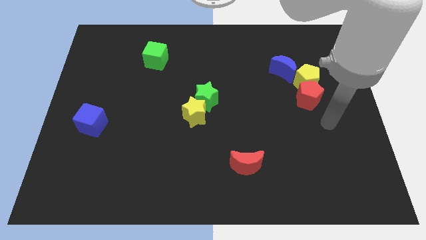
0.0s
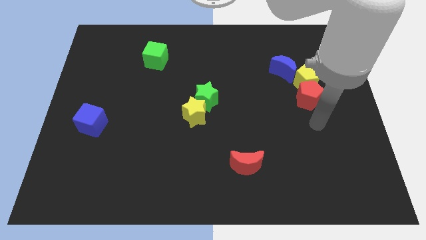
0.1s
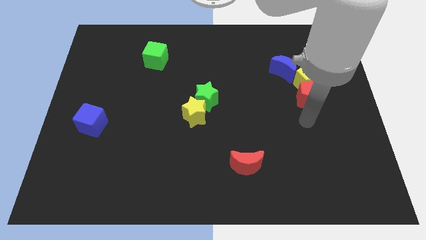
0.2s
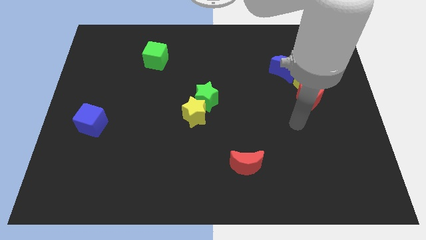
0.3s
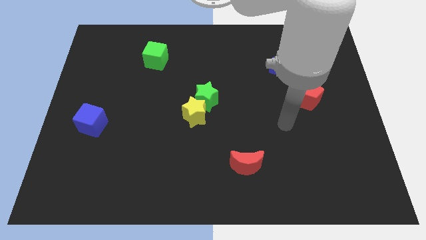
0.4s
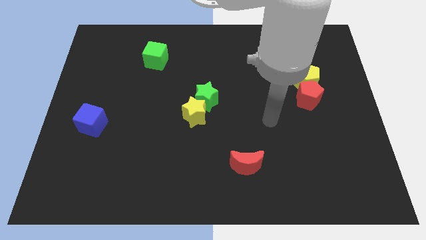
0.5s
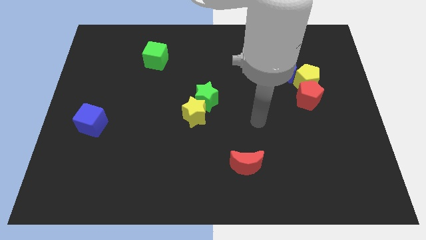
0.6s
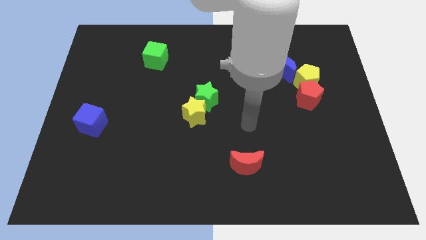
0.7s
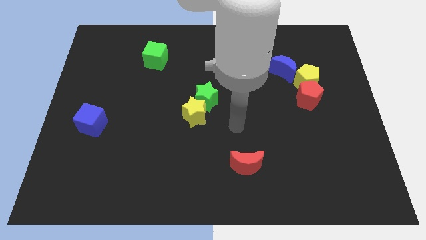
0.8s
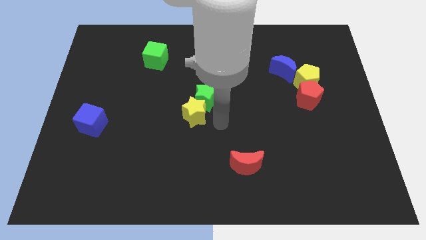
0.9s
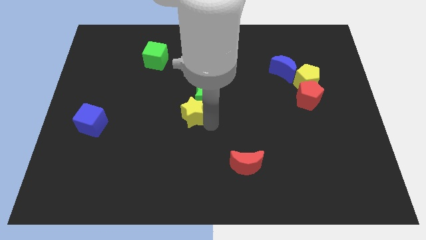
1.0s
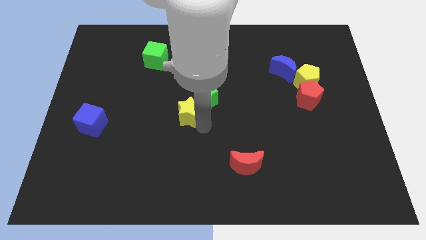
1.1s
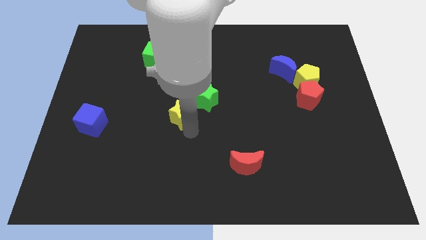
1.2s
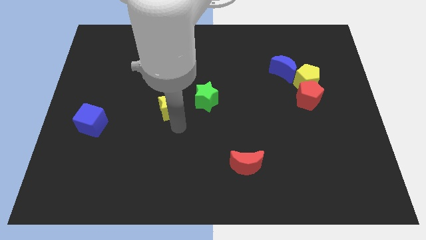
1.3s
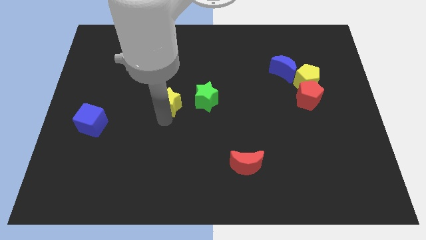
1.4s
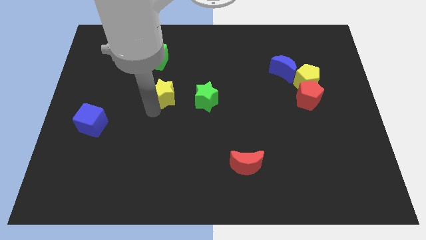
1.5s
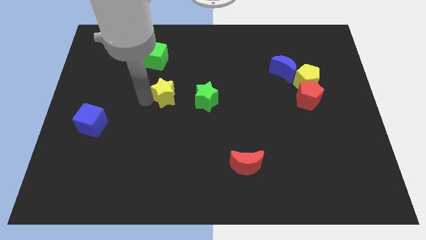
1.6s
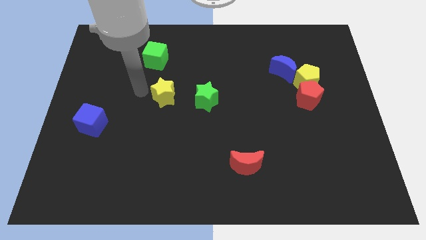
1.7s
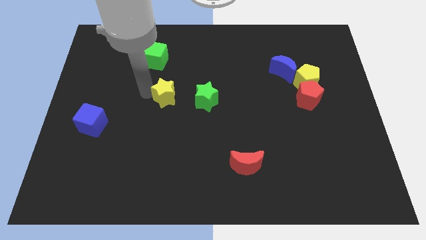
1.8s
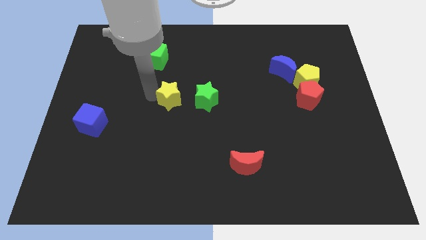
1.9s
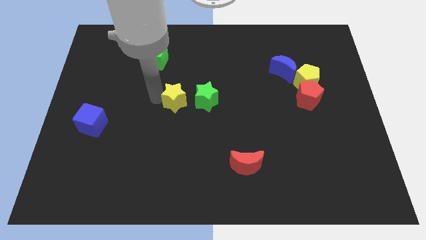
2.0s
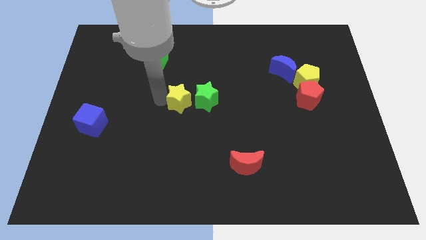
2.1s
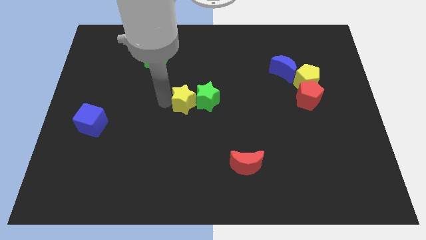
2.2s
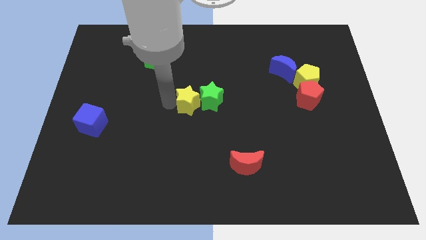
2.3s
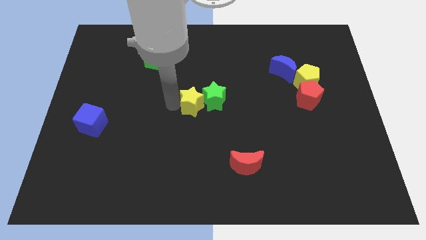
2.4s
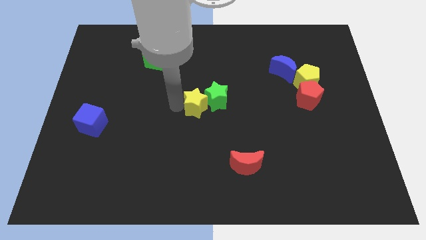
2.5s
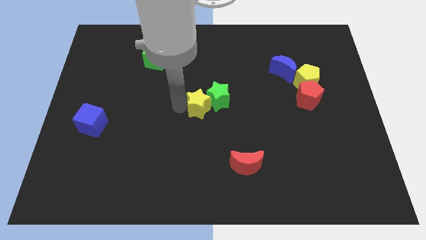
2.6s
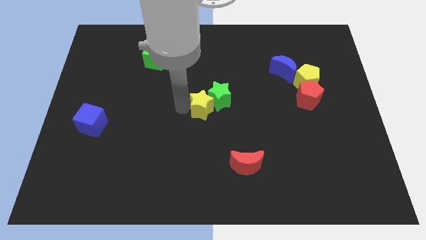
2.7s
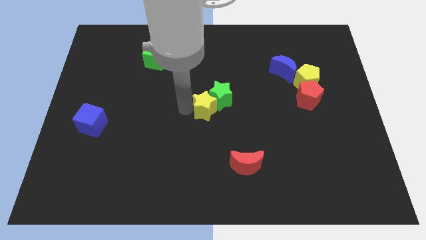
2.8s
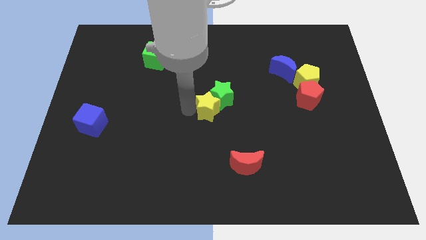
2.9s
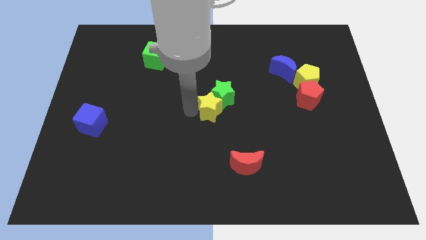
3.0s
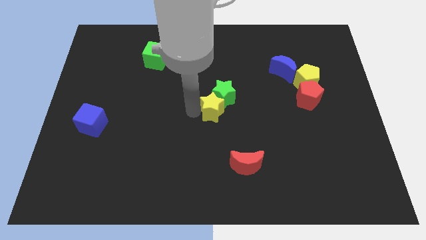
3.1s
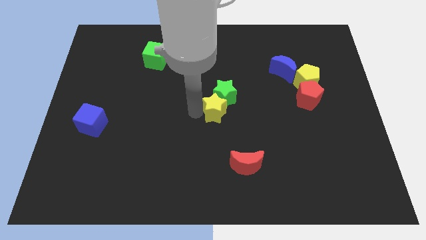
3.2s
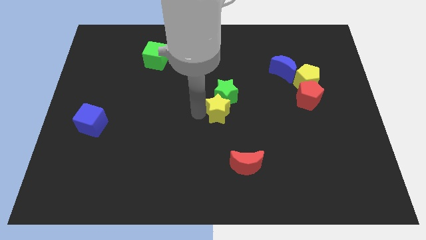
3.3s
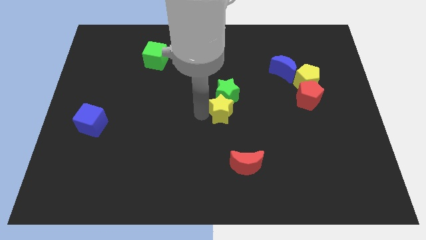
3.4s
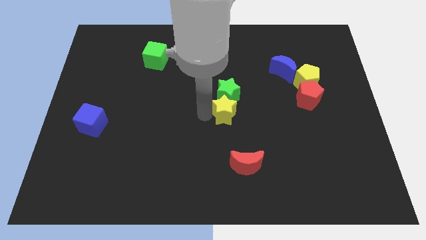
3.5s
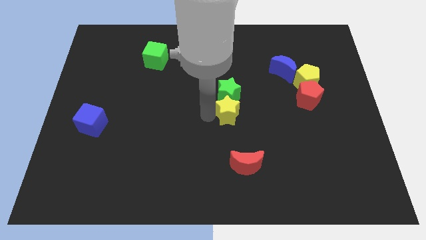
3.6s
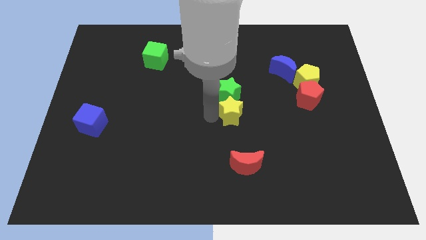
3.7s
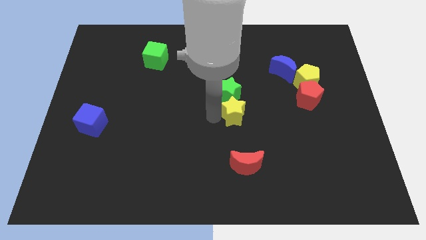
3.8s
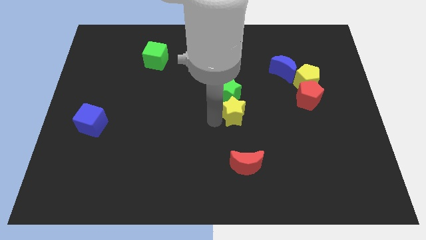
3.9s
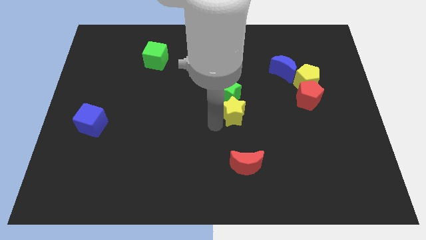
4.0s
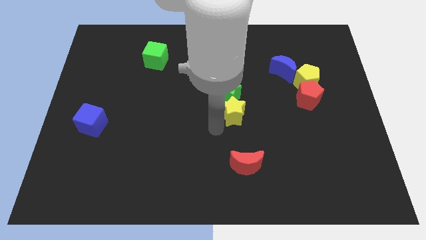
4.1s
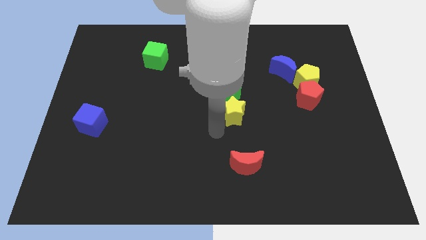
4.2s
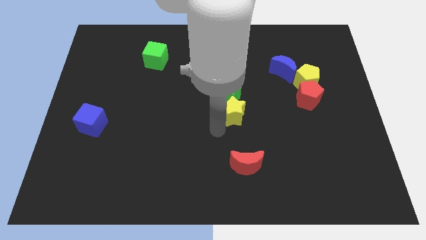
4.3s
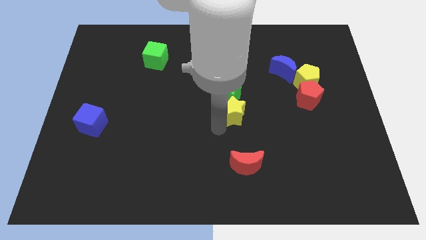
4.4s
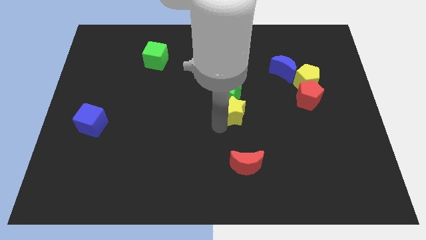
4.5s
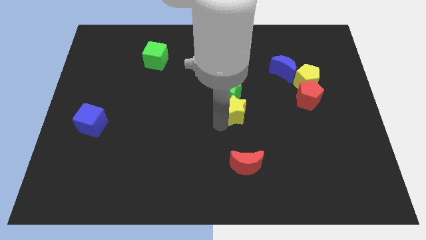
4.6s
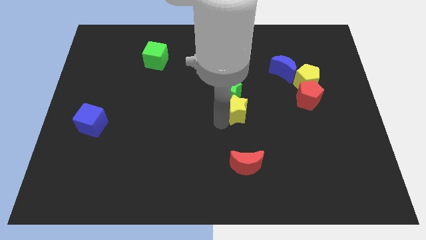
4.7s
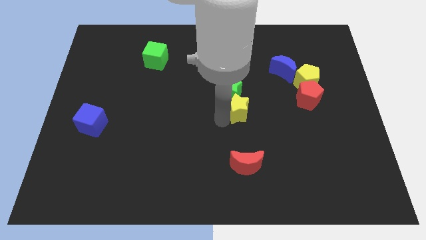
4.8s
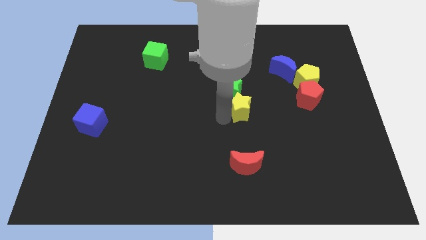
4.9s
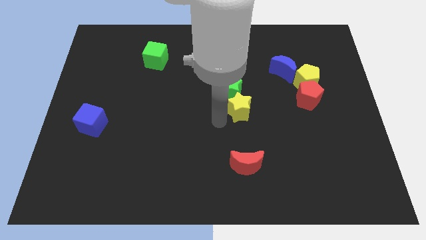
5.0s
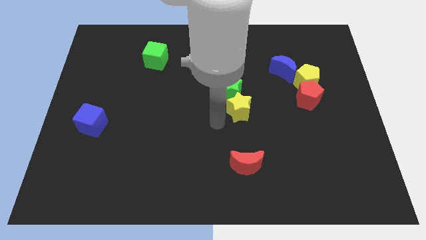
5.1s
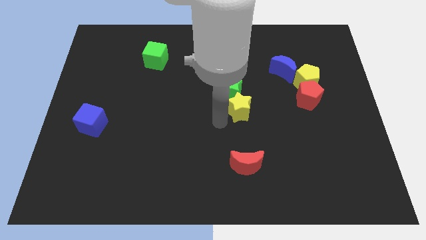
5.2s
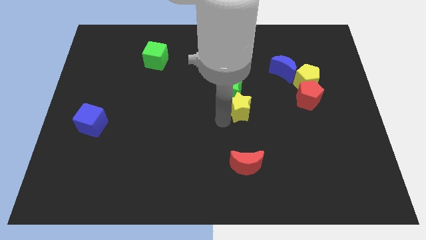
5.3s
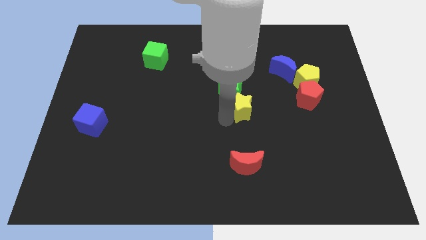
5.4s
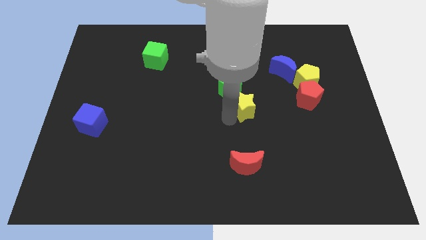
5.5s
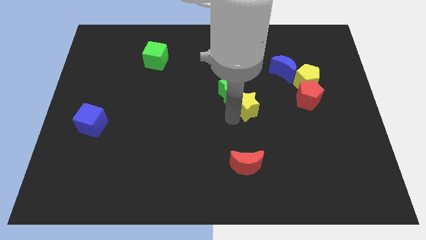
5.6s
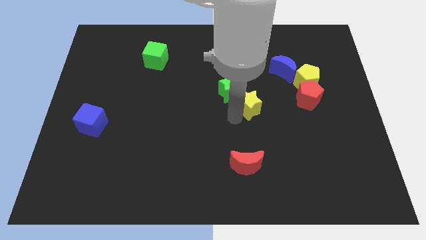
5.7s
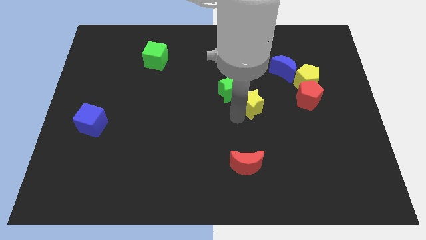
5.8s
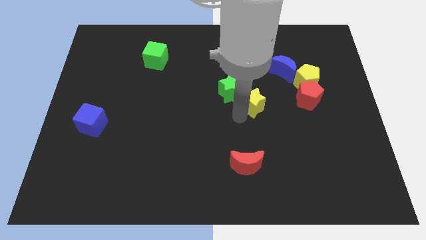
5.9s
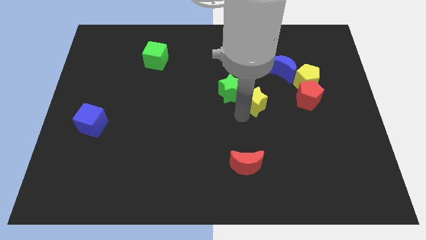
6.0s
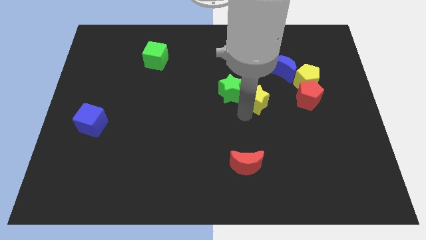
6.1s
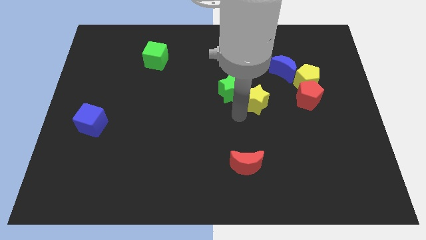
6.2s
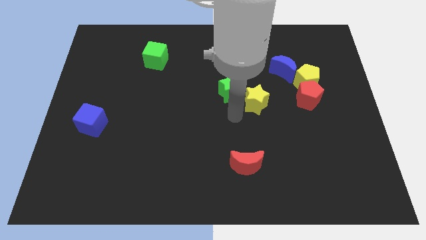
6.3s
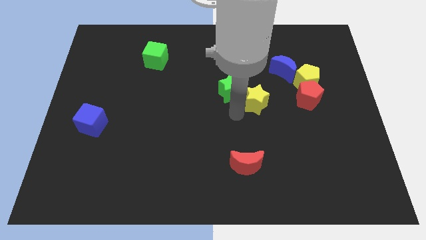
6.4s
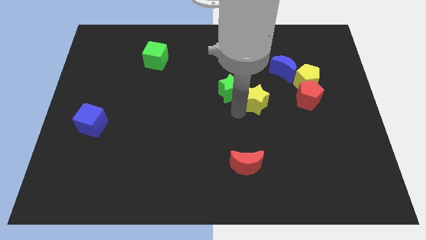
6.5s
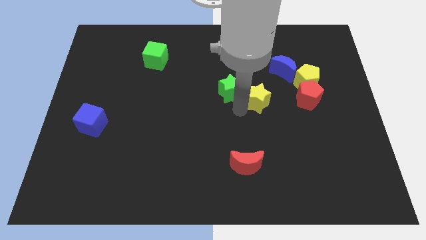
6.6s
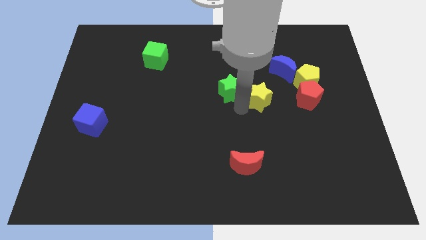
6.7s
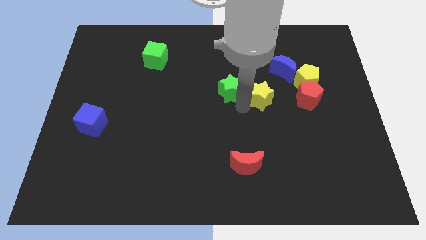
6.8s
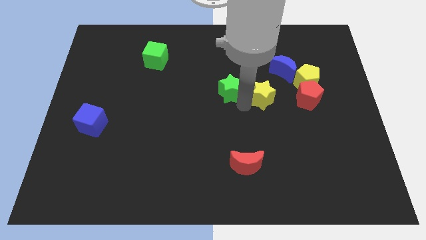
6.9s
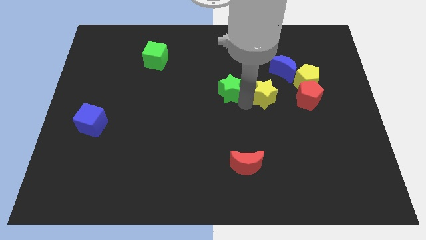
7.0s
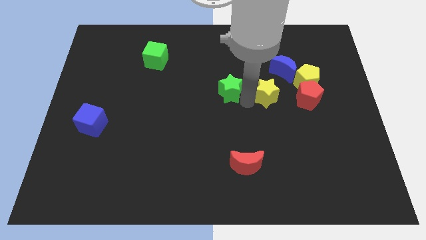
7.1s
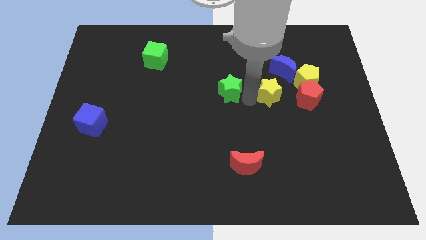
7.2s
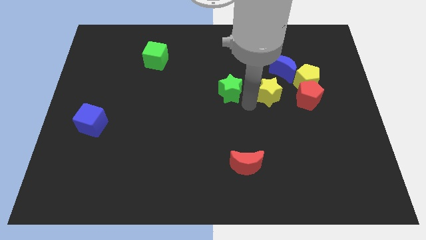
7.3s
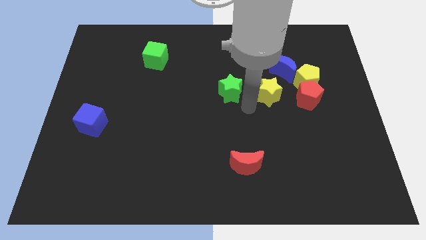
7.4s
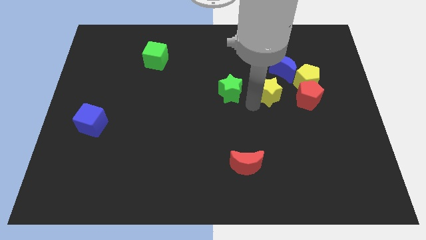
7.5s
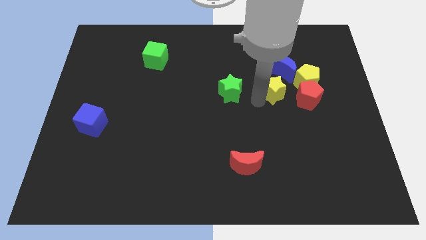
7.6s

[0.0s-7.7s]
put the yellow star to the top left of the red pentagon
